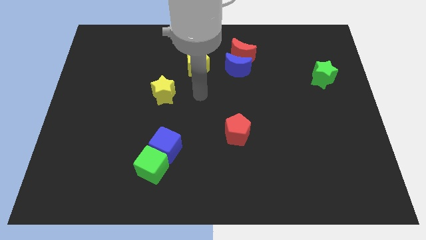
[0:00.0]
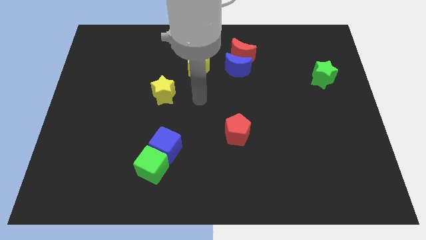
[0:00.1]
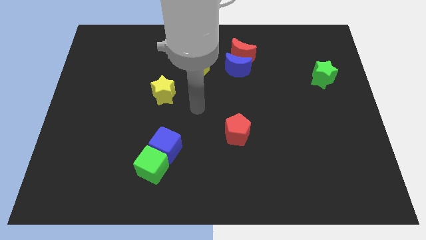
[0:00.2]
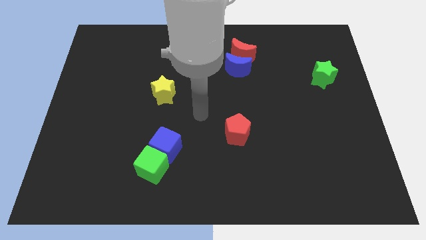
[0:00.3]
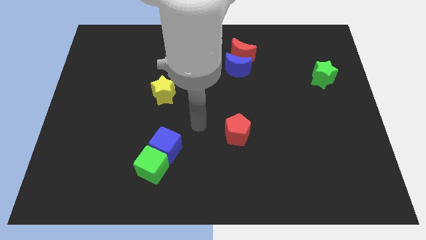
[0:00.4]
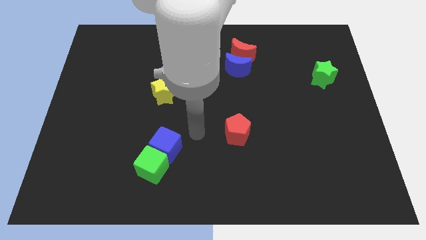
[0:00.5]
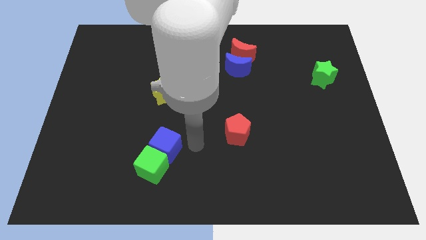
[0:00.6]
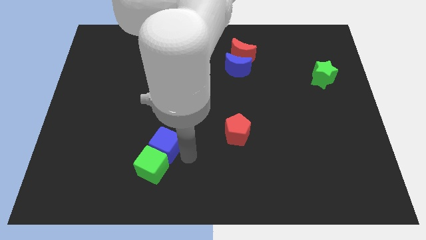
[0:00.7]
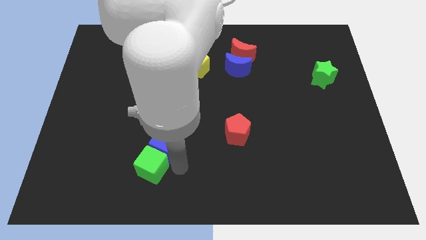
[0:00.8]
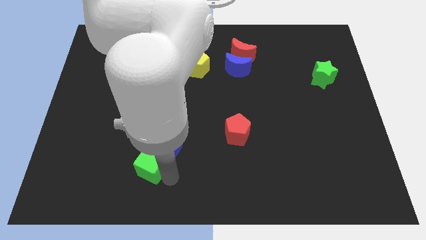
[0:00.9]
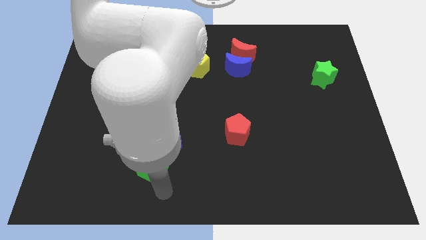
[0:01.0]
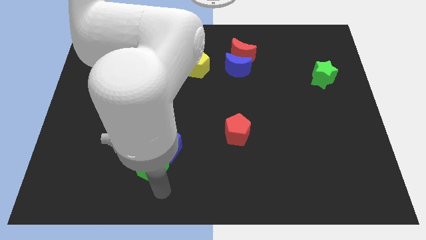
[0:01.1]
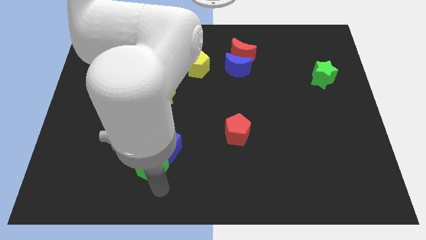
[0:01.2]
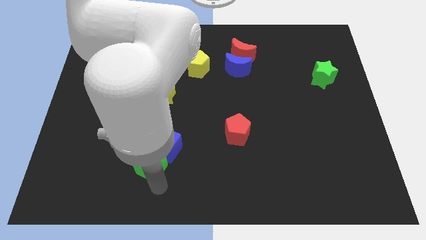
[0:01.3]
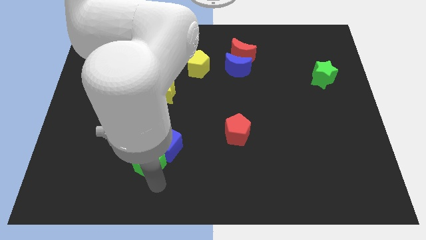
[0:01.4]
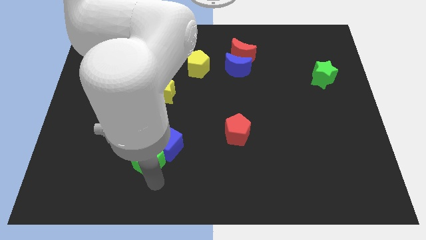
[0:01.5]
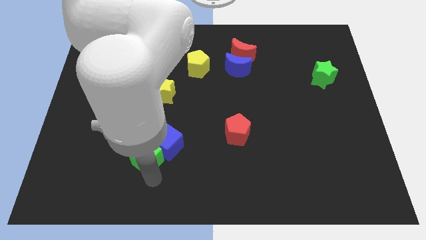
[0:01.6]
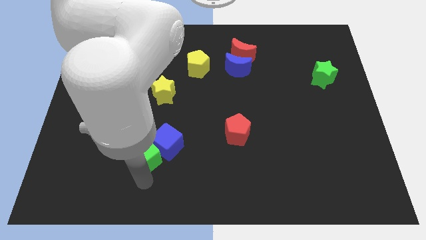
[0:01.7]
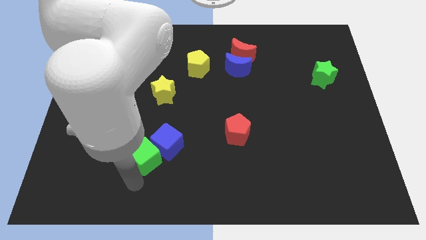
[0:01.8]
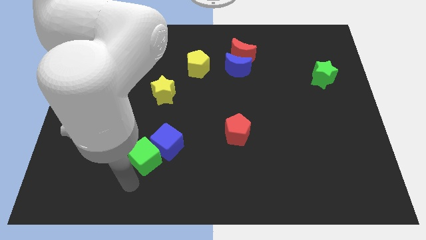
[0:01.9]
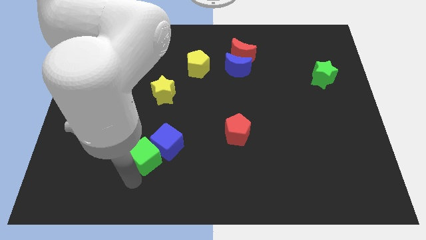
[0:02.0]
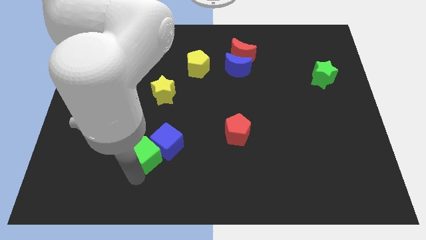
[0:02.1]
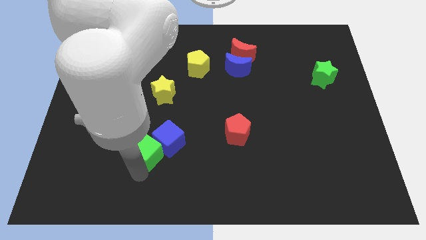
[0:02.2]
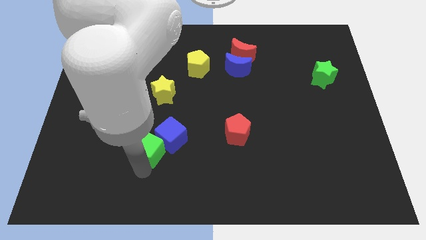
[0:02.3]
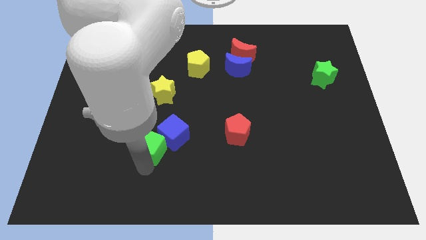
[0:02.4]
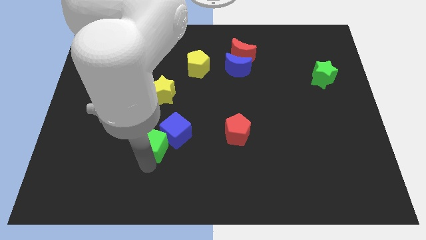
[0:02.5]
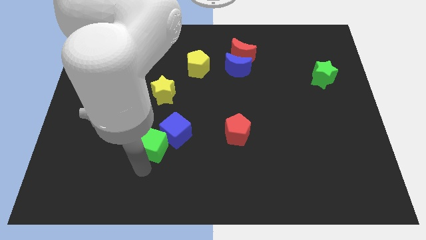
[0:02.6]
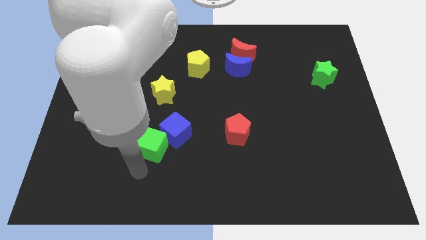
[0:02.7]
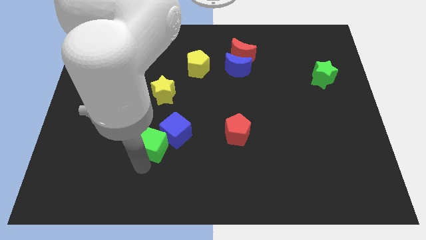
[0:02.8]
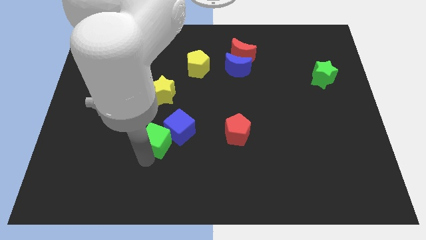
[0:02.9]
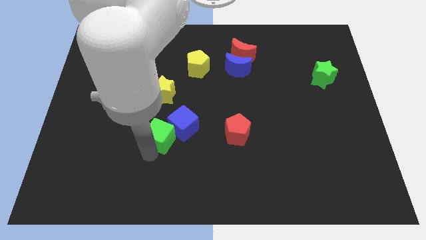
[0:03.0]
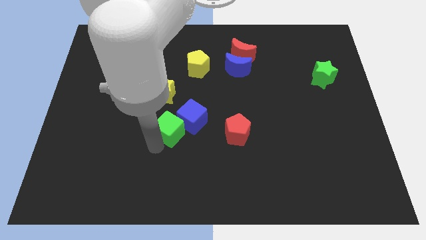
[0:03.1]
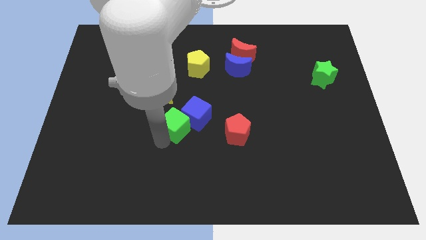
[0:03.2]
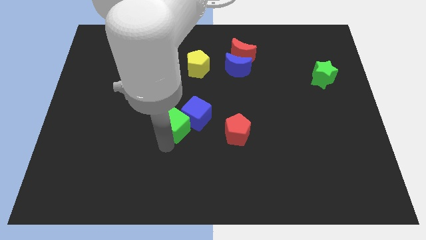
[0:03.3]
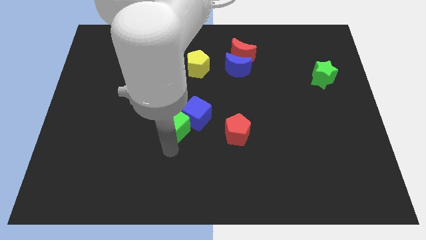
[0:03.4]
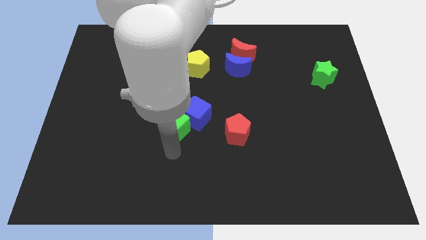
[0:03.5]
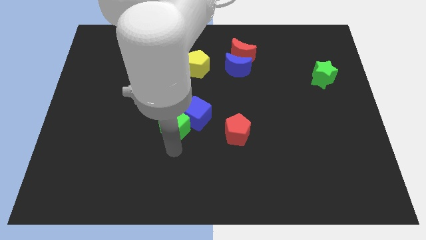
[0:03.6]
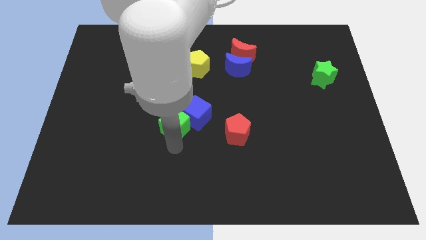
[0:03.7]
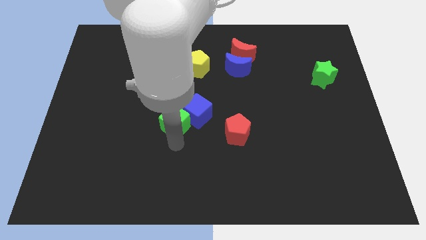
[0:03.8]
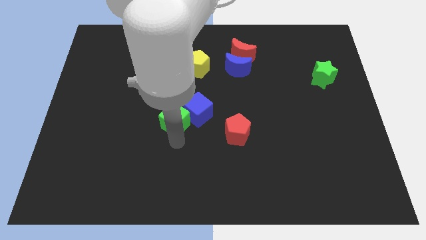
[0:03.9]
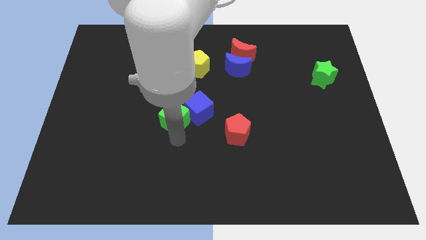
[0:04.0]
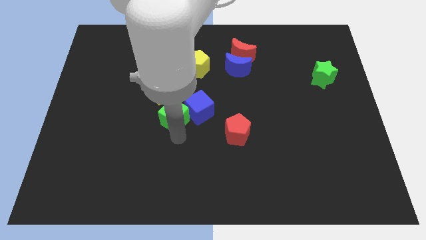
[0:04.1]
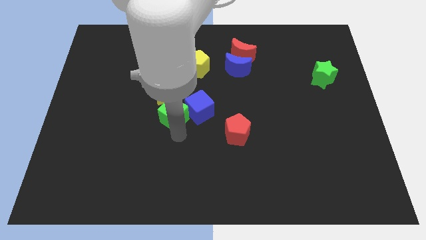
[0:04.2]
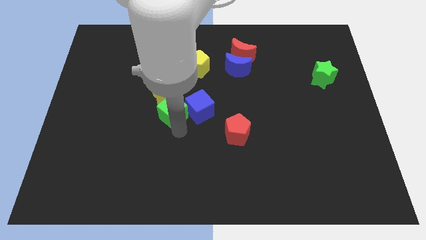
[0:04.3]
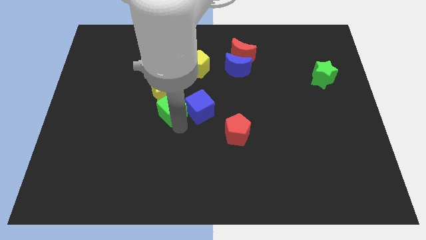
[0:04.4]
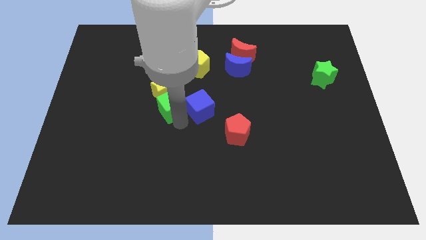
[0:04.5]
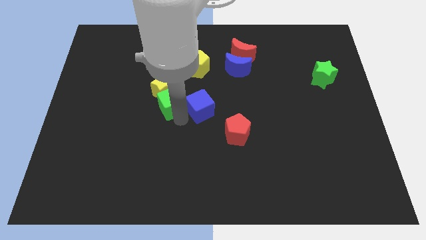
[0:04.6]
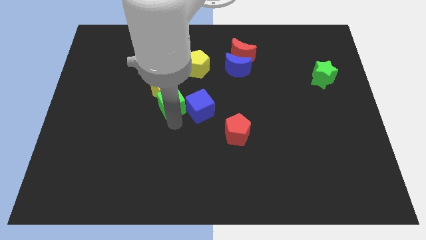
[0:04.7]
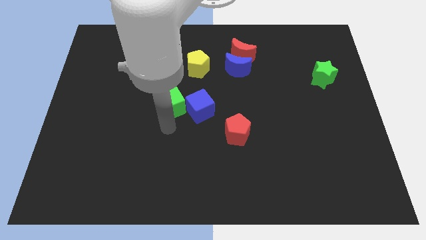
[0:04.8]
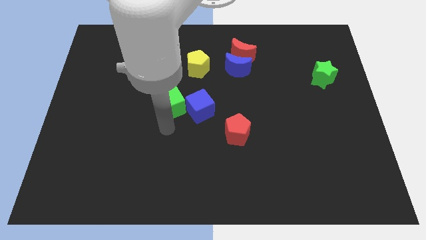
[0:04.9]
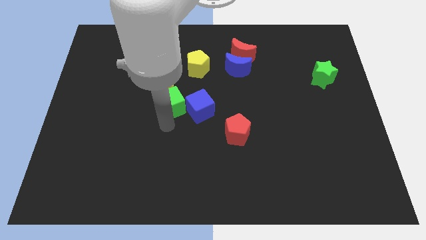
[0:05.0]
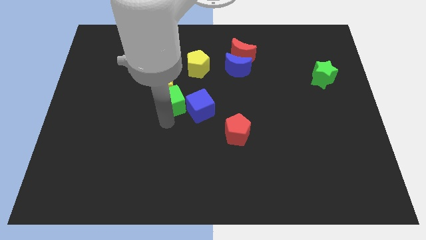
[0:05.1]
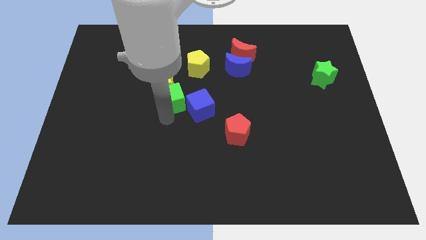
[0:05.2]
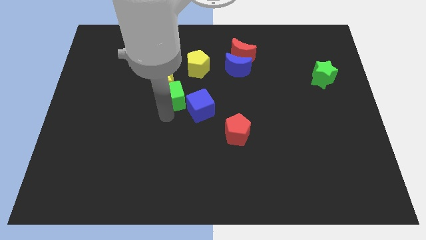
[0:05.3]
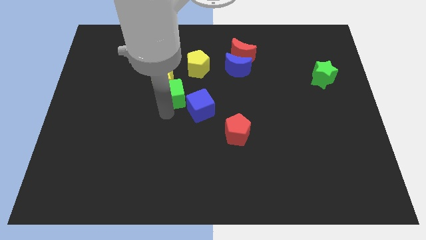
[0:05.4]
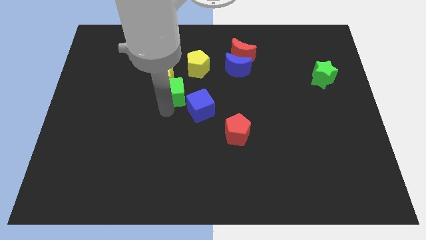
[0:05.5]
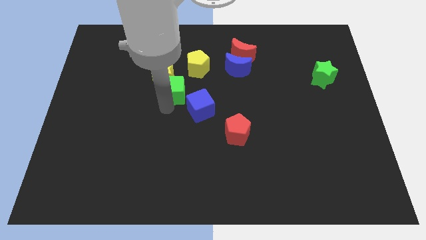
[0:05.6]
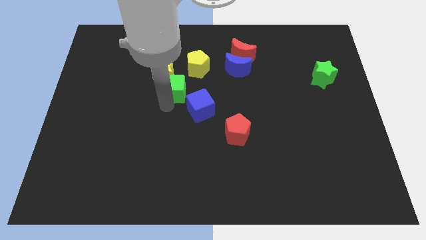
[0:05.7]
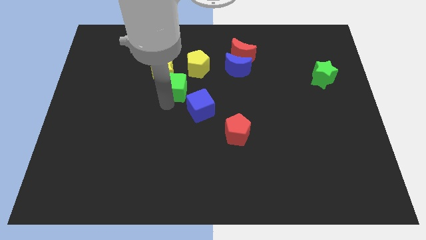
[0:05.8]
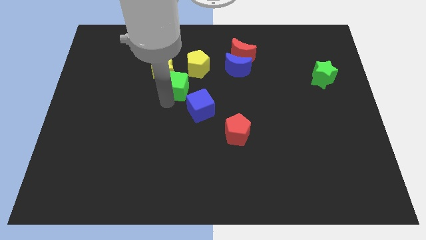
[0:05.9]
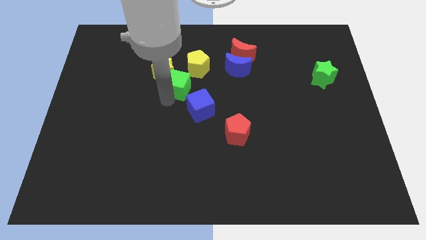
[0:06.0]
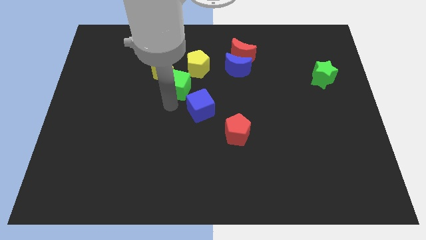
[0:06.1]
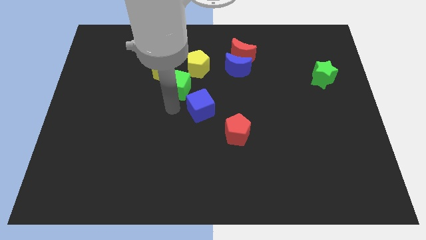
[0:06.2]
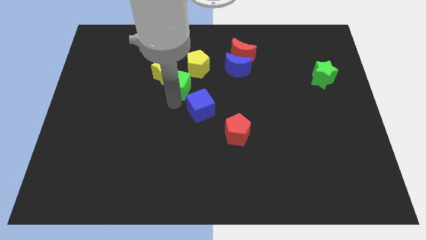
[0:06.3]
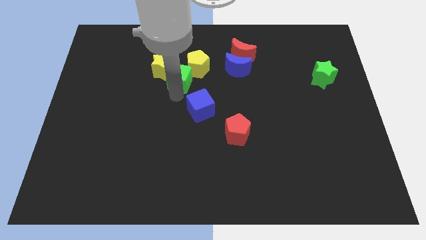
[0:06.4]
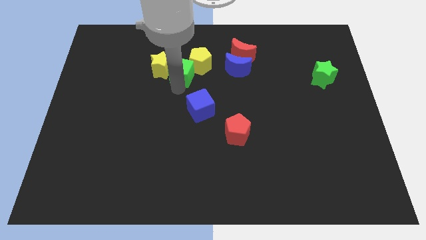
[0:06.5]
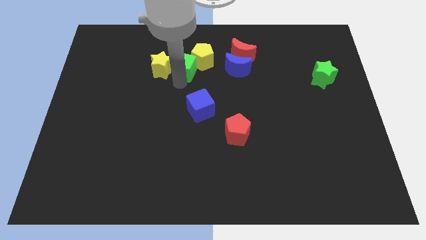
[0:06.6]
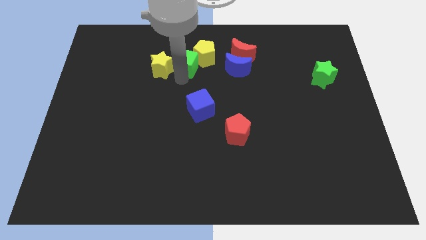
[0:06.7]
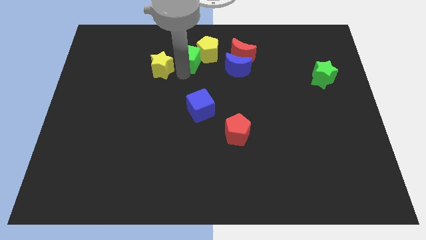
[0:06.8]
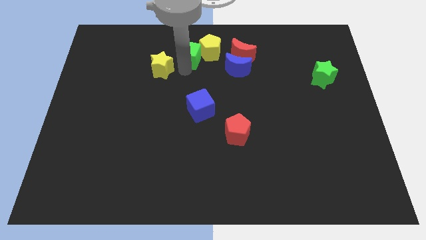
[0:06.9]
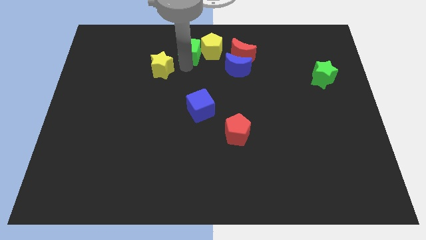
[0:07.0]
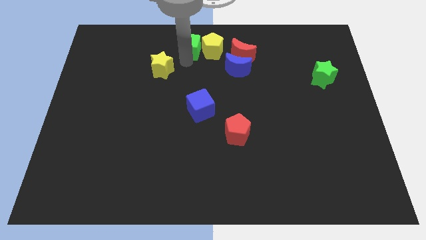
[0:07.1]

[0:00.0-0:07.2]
push the green cube to the towards your base
